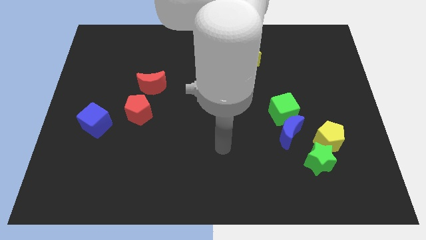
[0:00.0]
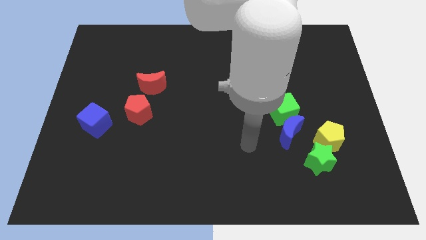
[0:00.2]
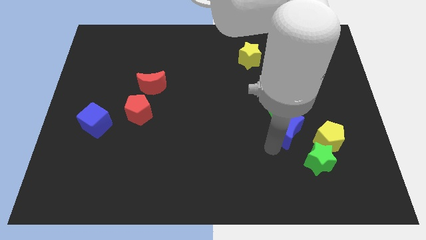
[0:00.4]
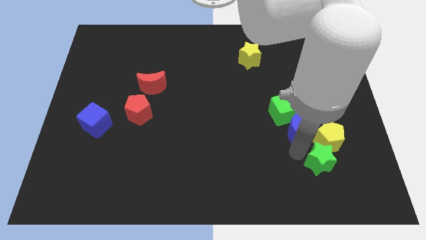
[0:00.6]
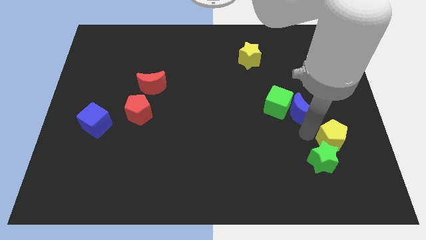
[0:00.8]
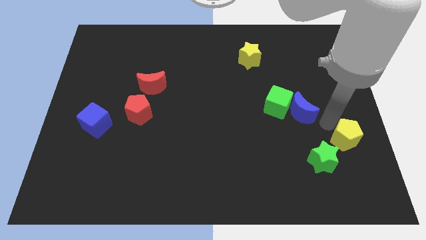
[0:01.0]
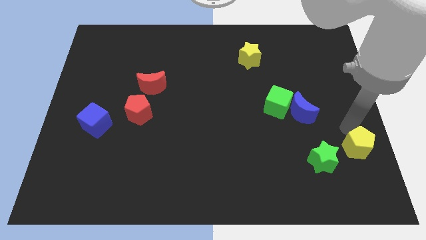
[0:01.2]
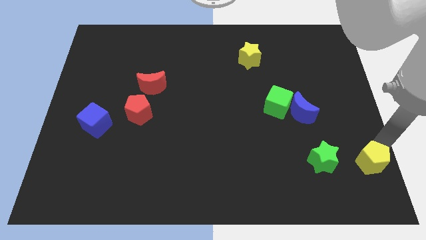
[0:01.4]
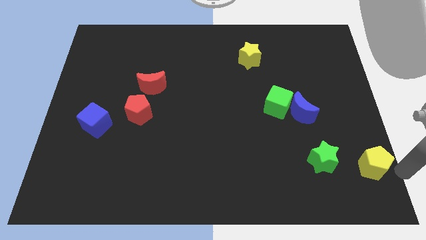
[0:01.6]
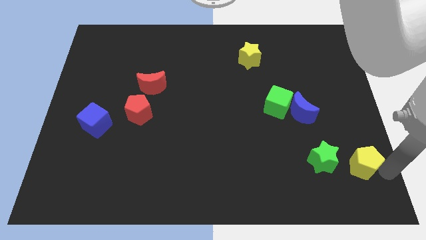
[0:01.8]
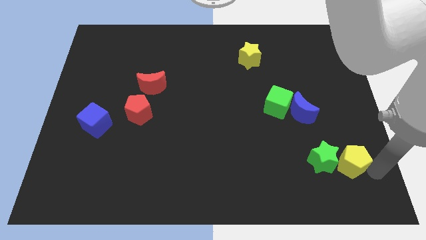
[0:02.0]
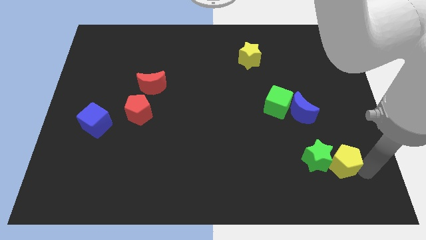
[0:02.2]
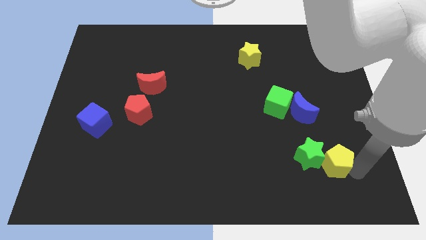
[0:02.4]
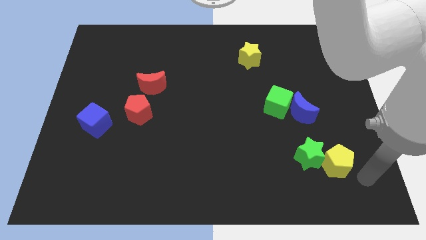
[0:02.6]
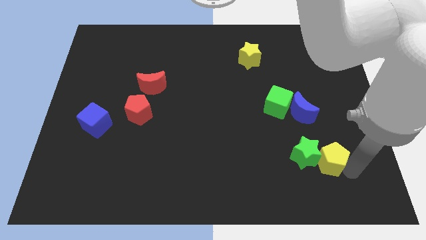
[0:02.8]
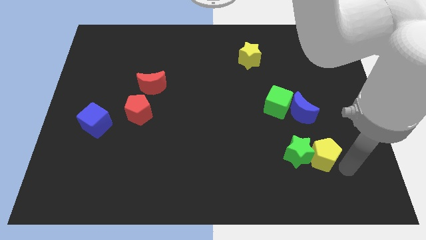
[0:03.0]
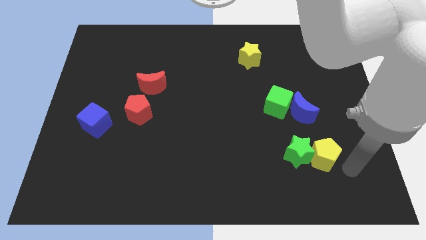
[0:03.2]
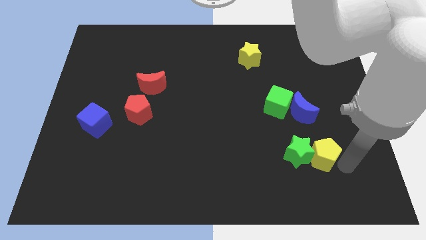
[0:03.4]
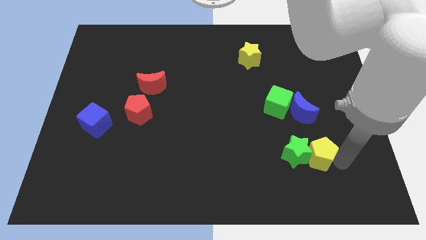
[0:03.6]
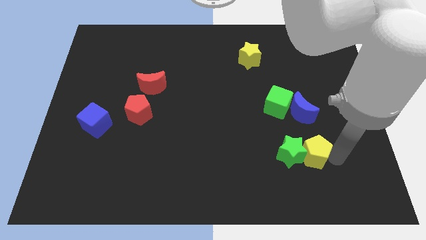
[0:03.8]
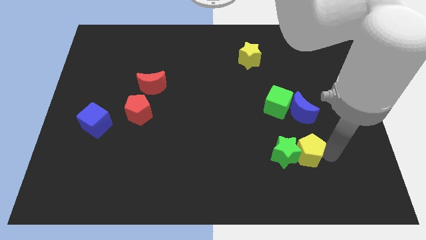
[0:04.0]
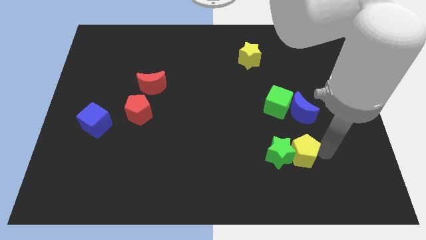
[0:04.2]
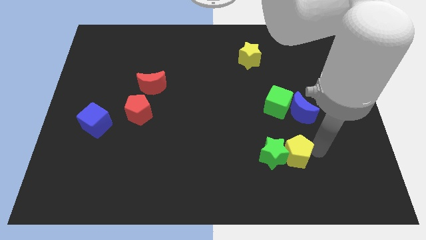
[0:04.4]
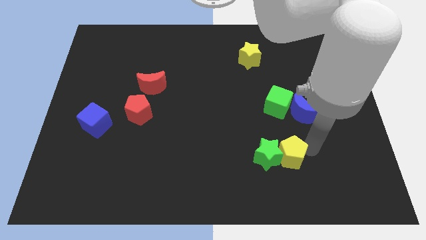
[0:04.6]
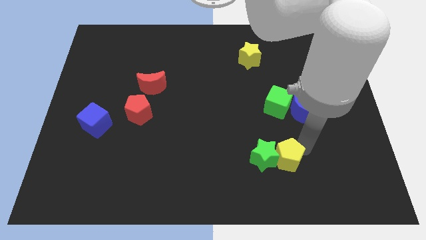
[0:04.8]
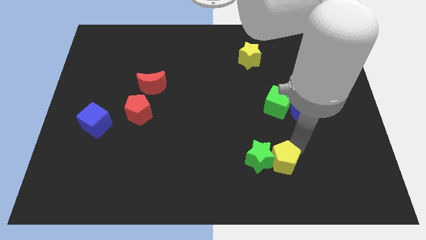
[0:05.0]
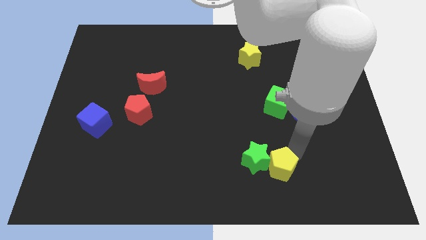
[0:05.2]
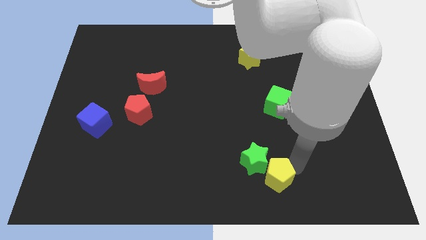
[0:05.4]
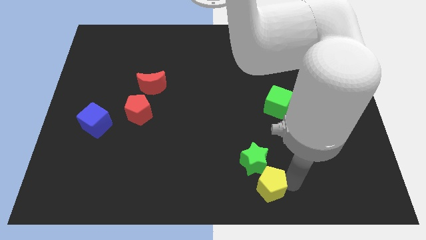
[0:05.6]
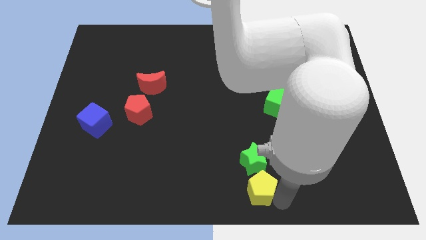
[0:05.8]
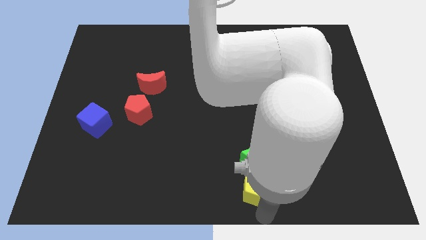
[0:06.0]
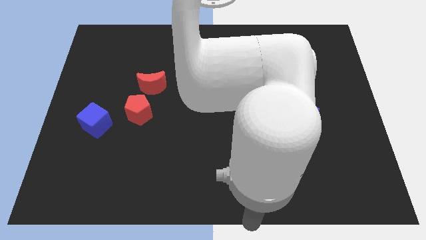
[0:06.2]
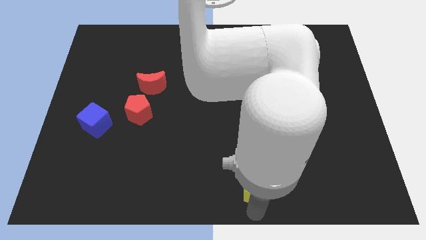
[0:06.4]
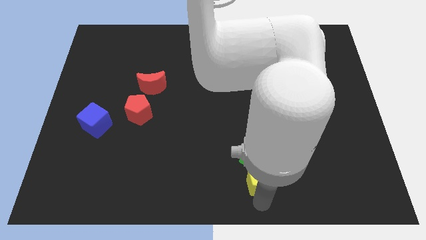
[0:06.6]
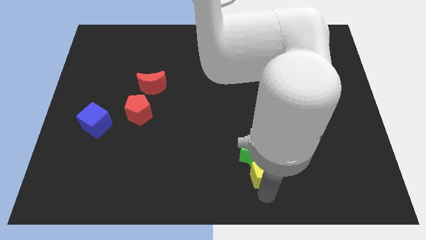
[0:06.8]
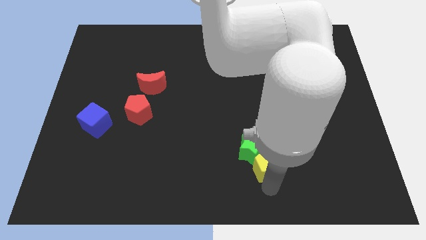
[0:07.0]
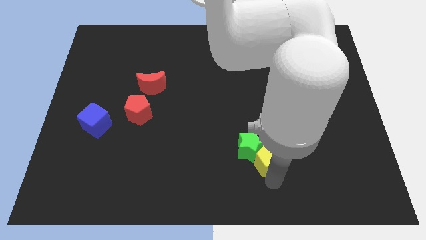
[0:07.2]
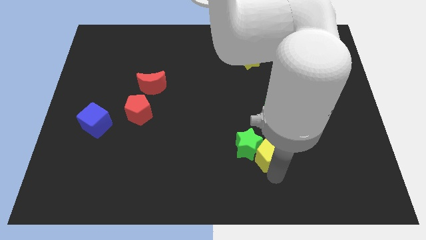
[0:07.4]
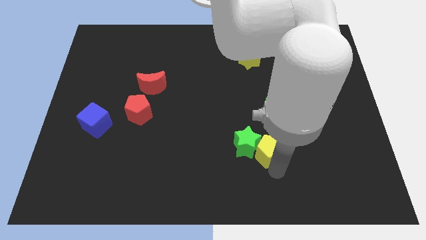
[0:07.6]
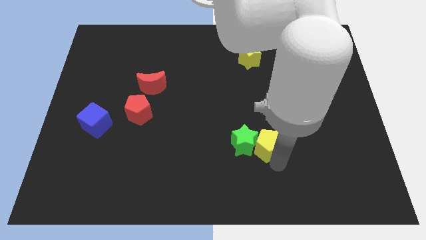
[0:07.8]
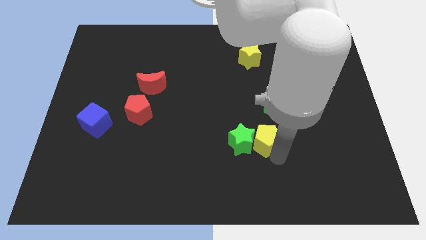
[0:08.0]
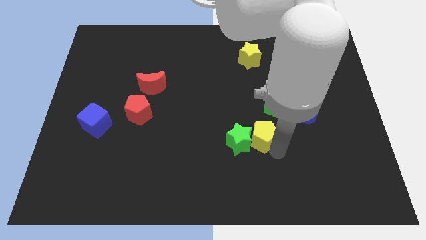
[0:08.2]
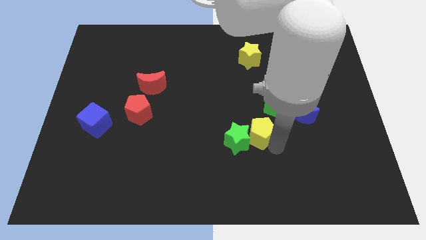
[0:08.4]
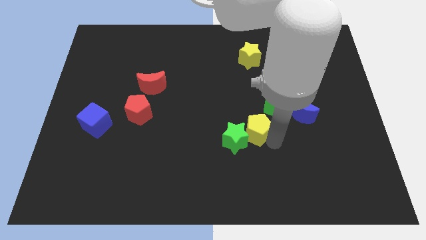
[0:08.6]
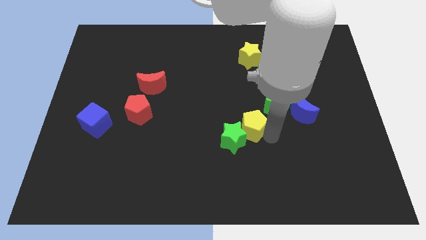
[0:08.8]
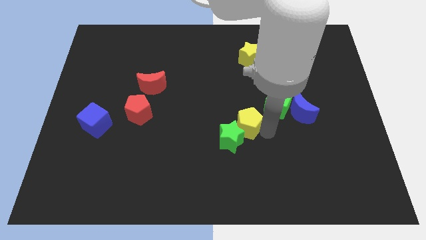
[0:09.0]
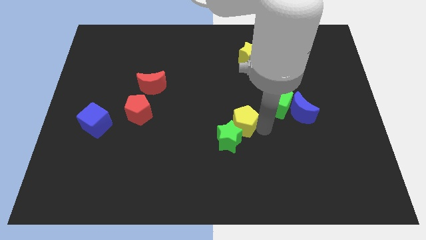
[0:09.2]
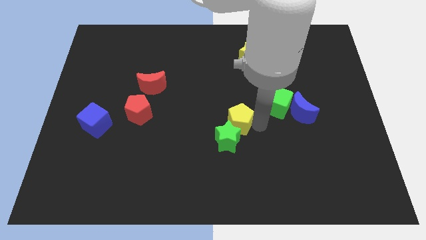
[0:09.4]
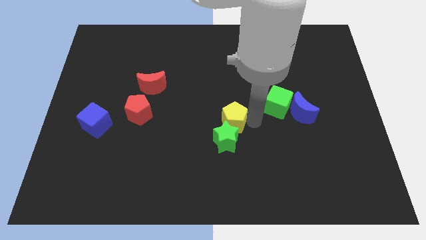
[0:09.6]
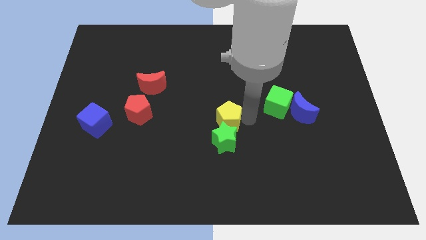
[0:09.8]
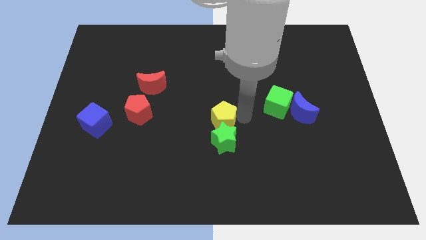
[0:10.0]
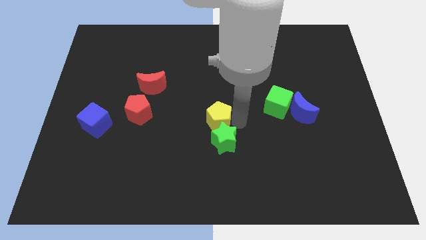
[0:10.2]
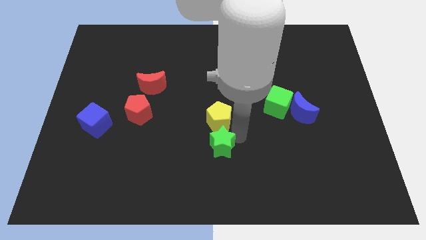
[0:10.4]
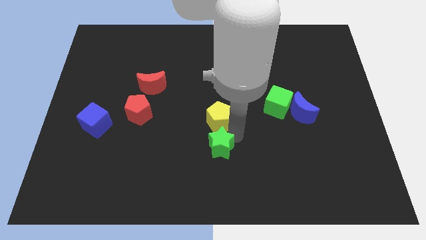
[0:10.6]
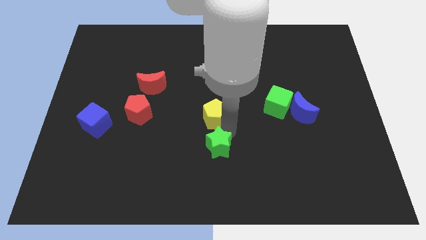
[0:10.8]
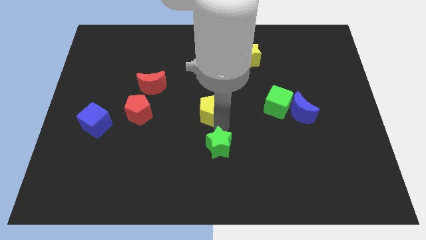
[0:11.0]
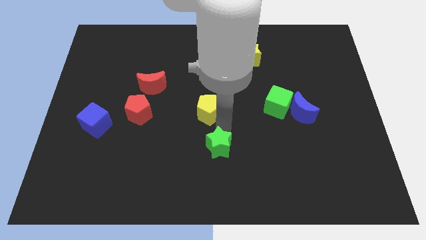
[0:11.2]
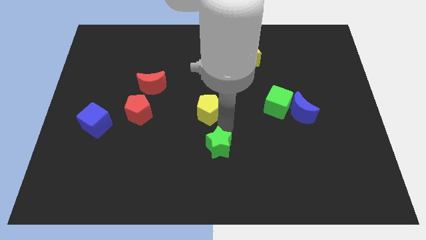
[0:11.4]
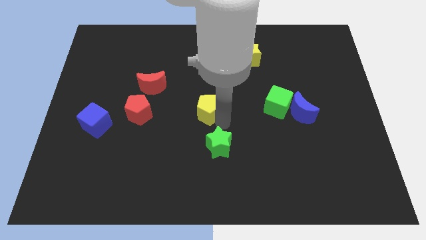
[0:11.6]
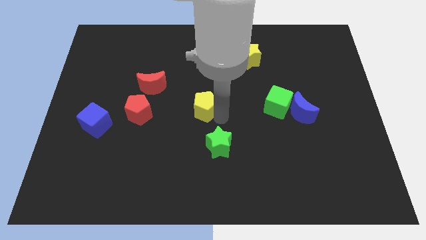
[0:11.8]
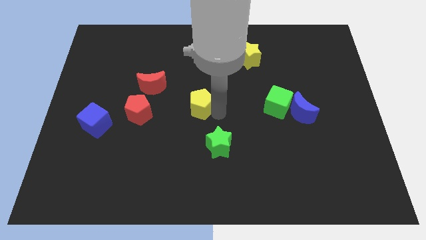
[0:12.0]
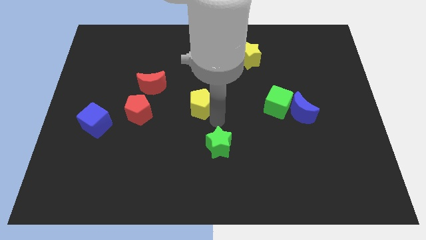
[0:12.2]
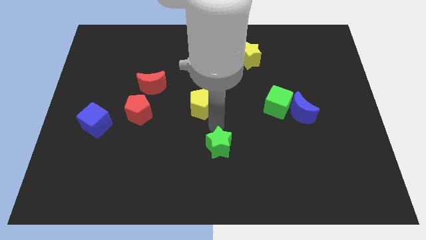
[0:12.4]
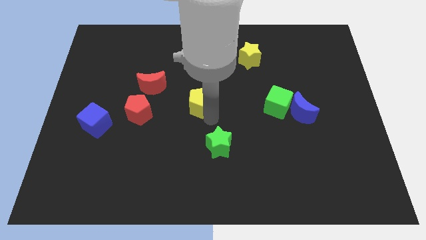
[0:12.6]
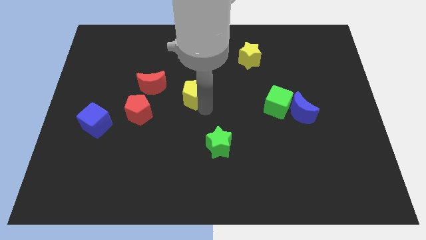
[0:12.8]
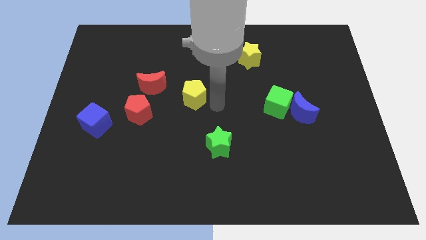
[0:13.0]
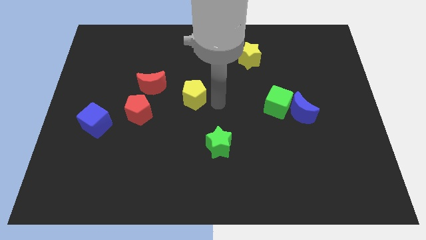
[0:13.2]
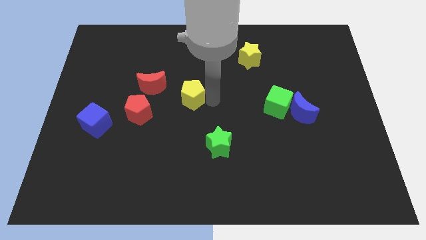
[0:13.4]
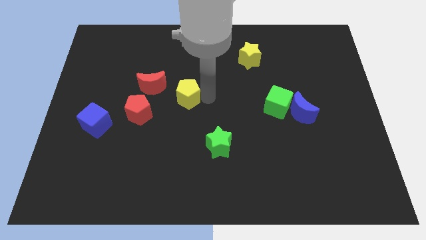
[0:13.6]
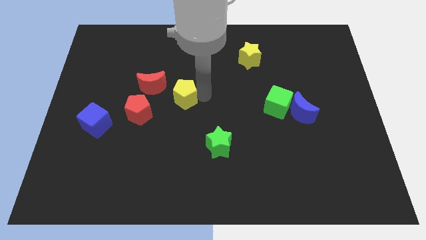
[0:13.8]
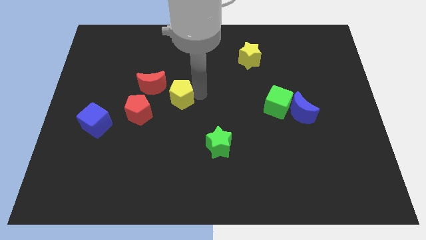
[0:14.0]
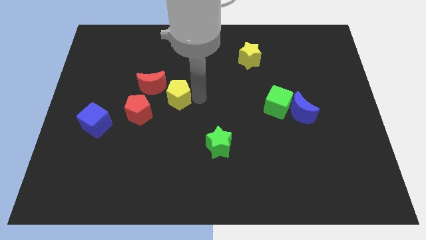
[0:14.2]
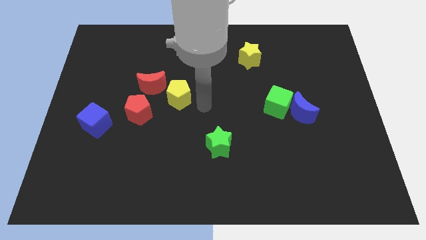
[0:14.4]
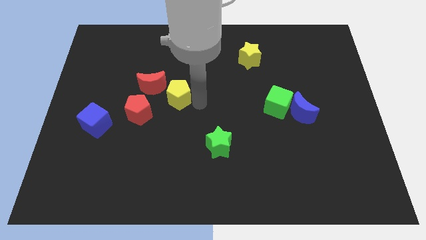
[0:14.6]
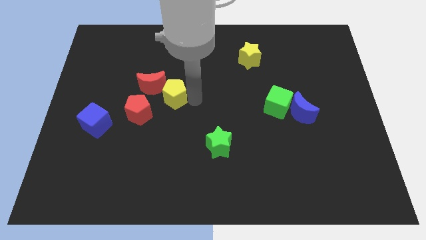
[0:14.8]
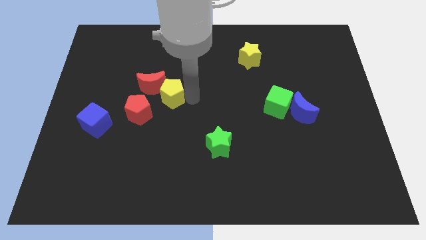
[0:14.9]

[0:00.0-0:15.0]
move the yellow pentagon towards the red moon
